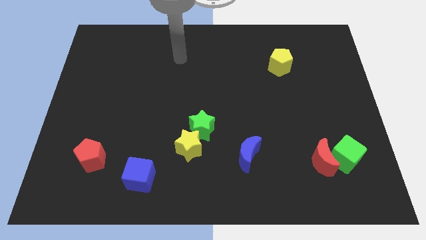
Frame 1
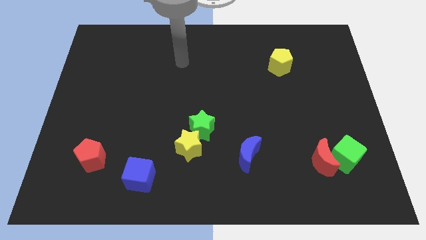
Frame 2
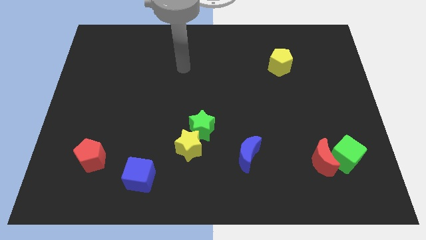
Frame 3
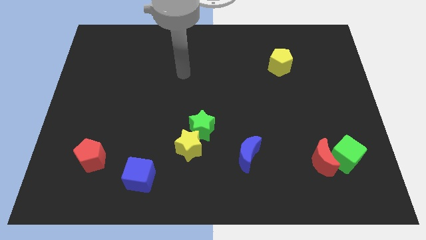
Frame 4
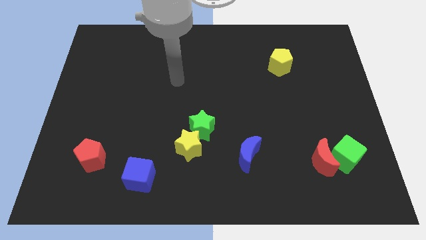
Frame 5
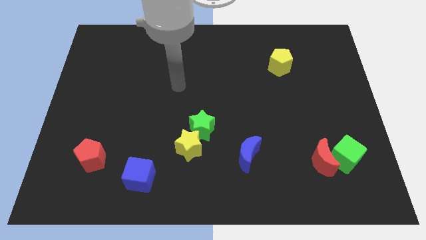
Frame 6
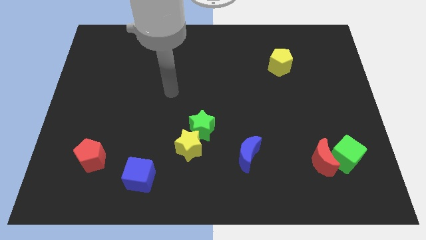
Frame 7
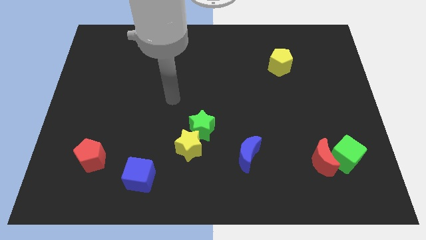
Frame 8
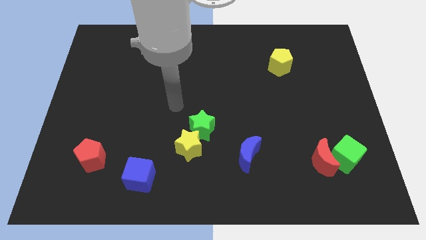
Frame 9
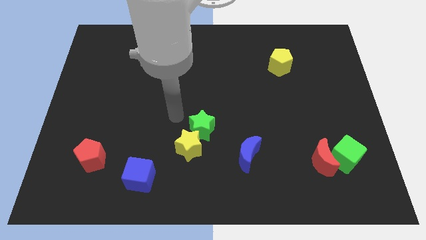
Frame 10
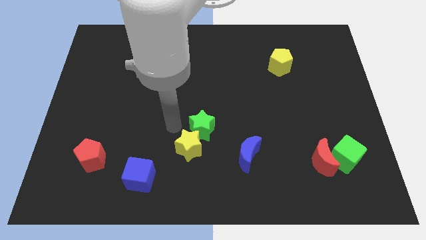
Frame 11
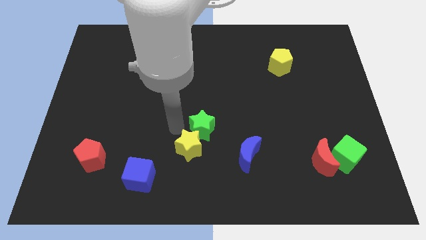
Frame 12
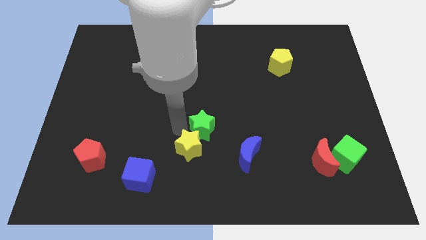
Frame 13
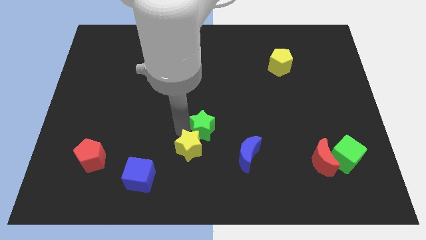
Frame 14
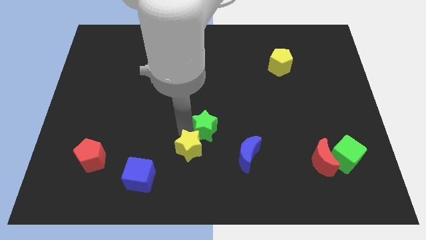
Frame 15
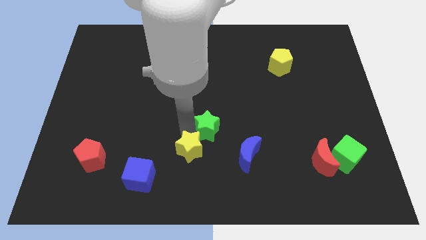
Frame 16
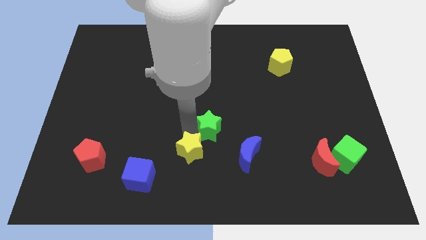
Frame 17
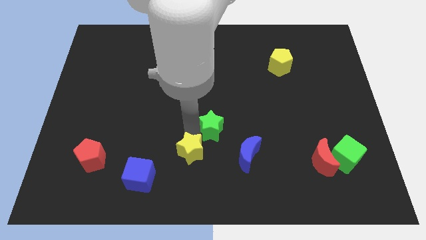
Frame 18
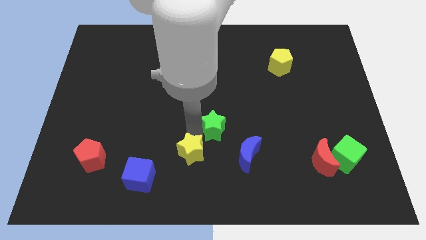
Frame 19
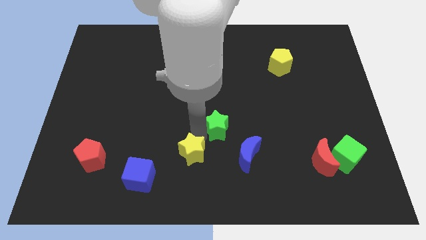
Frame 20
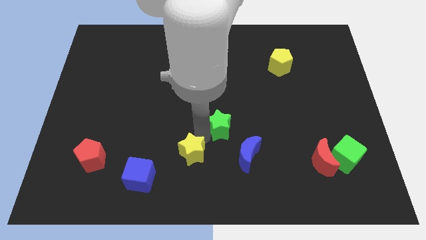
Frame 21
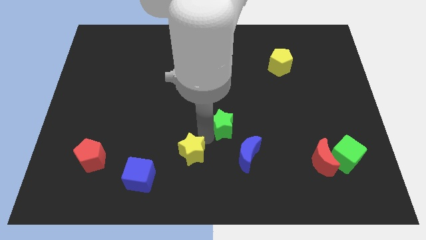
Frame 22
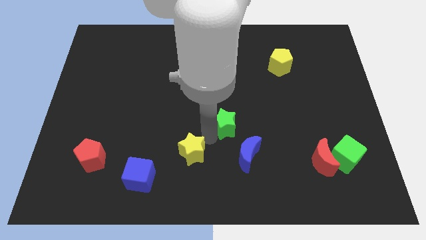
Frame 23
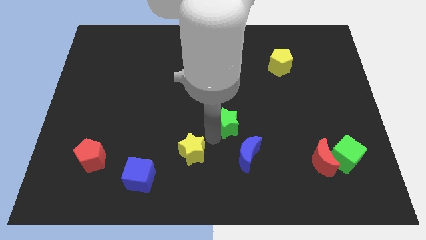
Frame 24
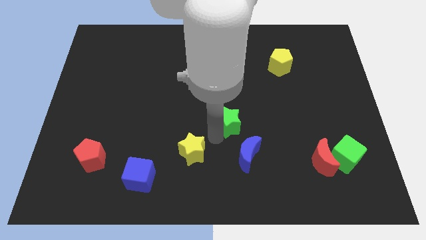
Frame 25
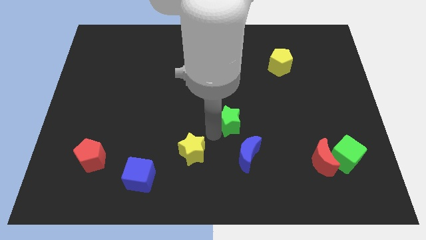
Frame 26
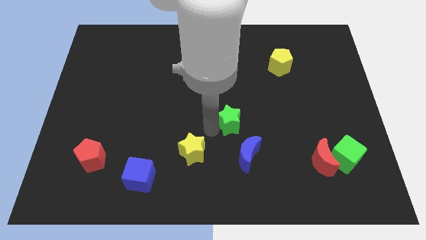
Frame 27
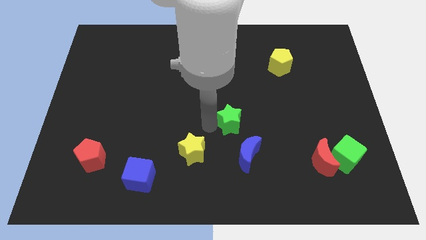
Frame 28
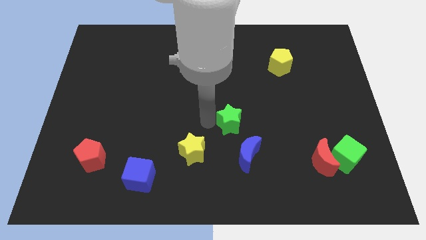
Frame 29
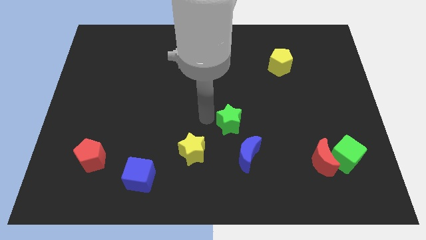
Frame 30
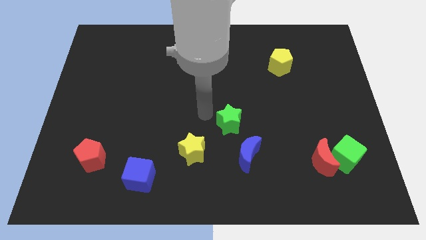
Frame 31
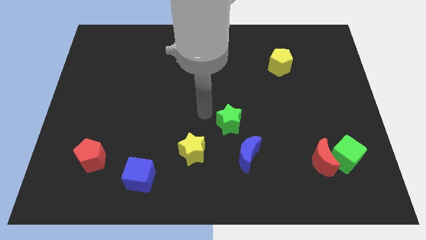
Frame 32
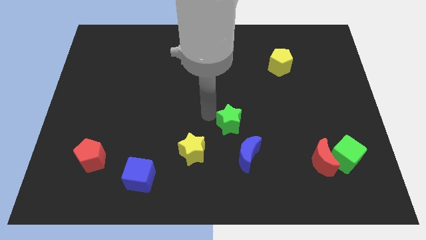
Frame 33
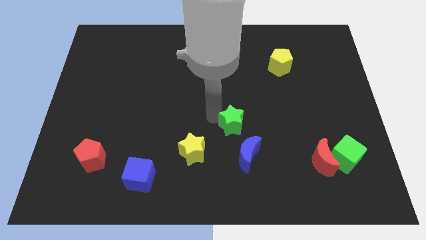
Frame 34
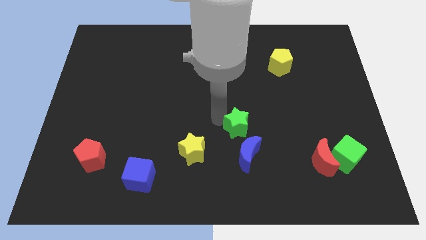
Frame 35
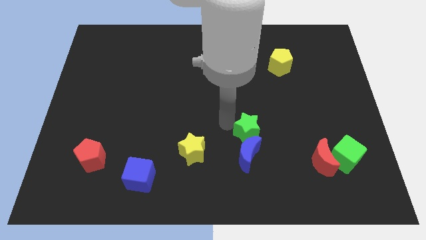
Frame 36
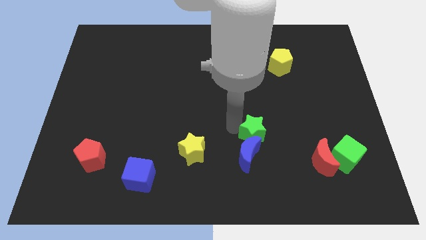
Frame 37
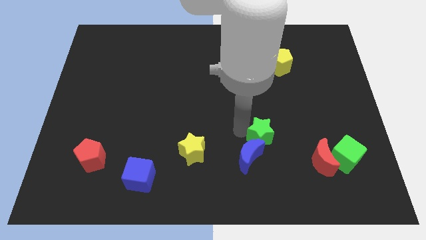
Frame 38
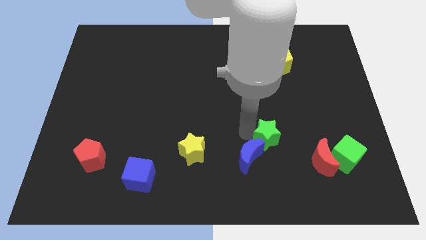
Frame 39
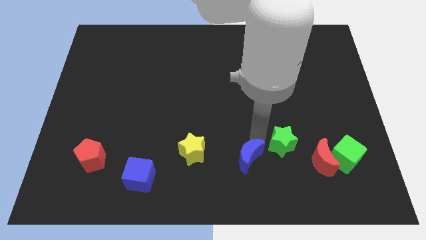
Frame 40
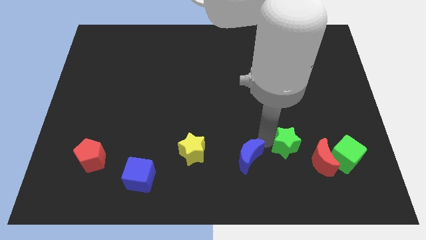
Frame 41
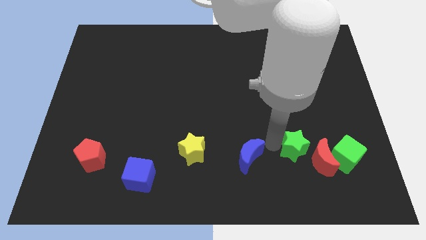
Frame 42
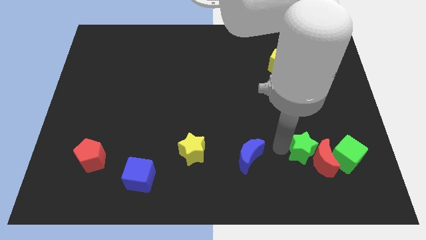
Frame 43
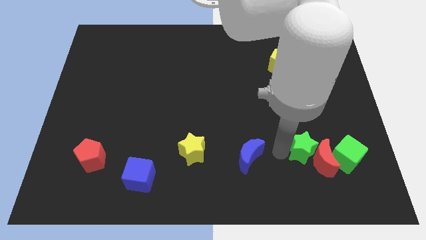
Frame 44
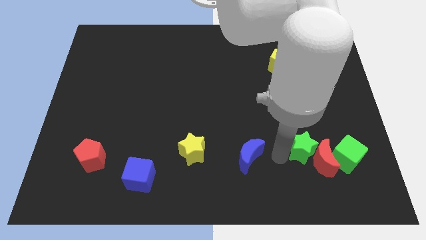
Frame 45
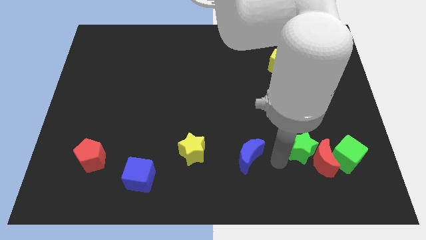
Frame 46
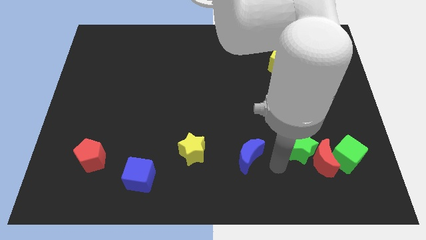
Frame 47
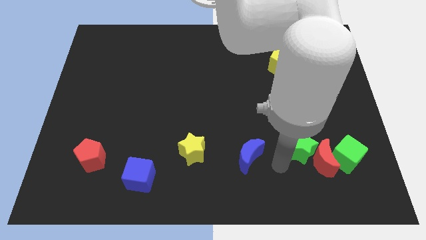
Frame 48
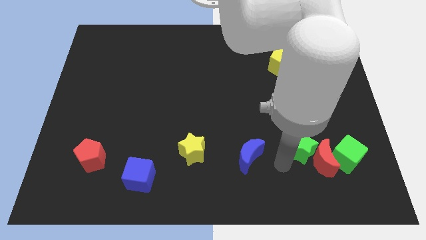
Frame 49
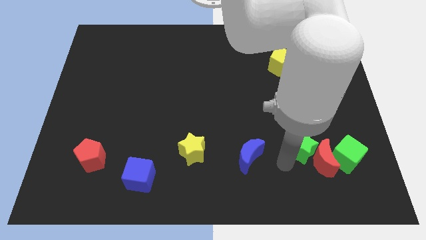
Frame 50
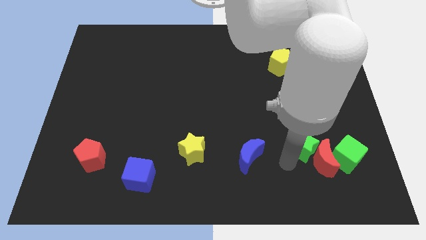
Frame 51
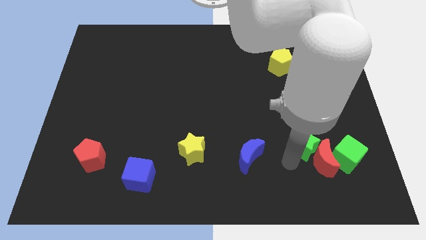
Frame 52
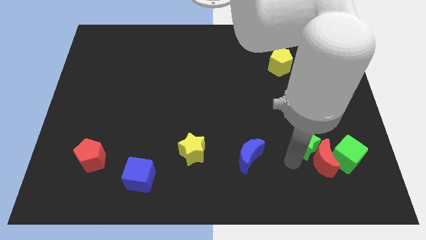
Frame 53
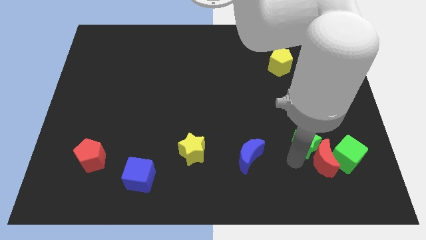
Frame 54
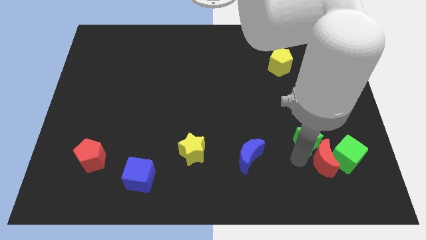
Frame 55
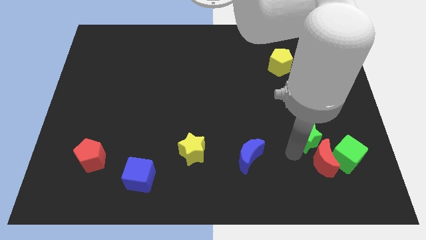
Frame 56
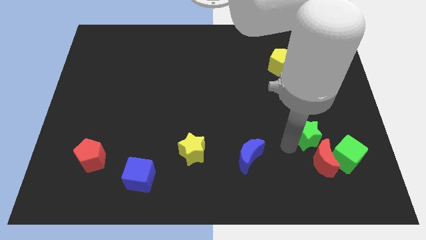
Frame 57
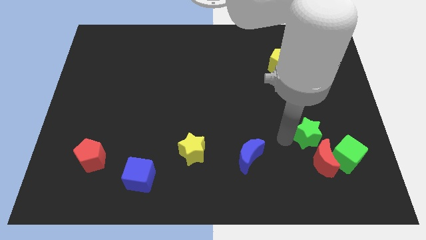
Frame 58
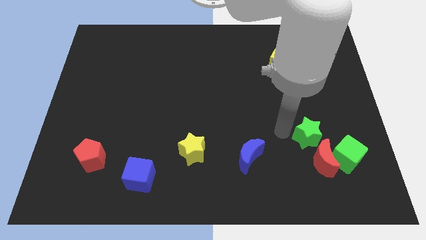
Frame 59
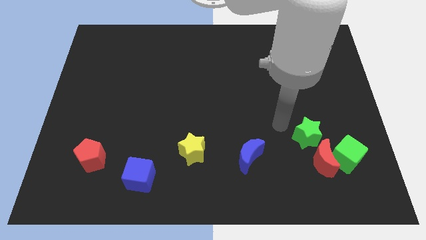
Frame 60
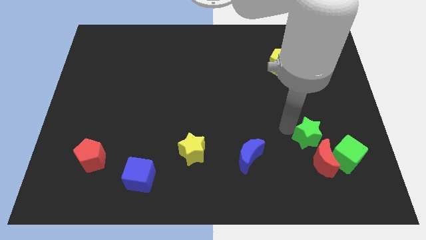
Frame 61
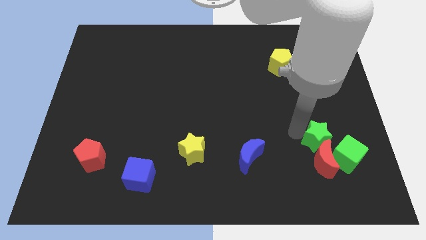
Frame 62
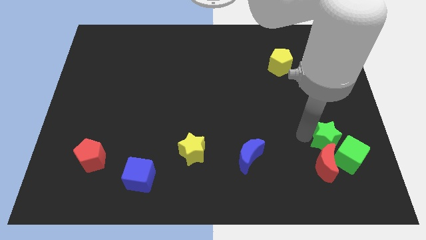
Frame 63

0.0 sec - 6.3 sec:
push the green star to the green cube

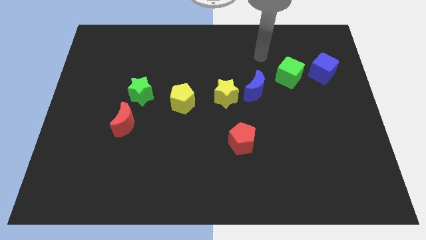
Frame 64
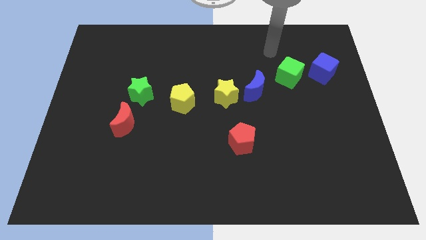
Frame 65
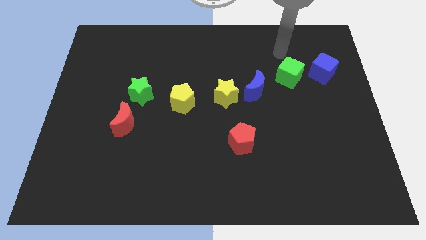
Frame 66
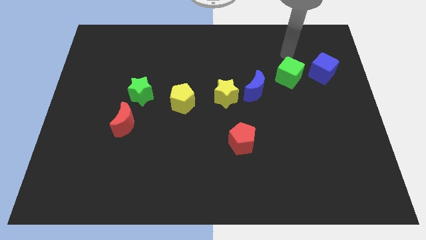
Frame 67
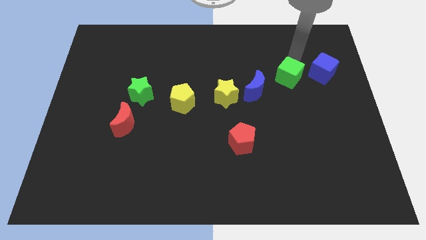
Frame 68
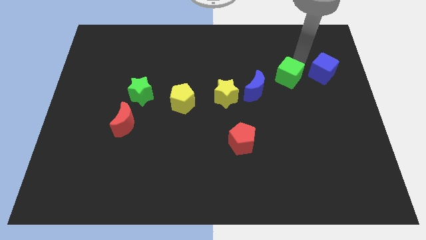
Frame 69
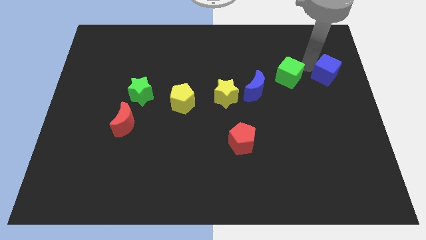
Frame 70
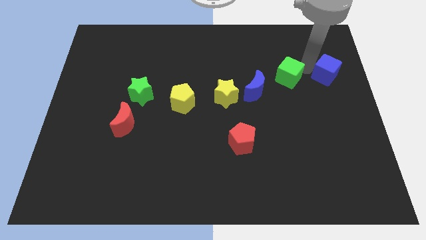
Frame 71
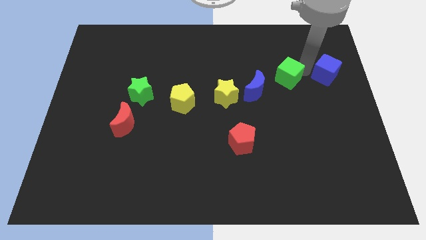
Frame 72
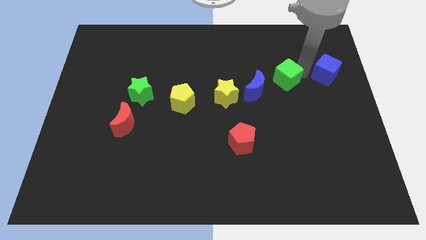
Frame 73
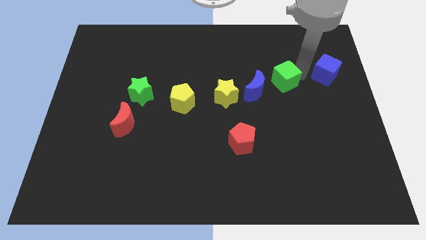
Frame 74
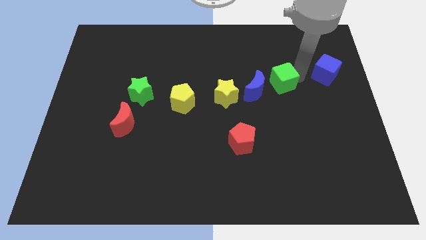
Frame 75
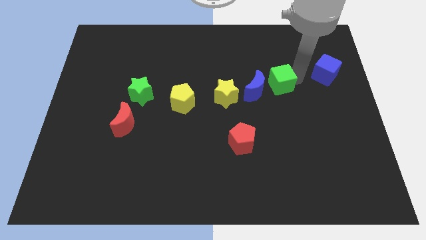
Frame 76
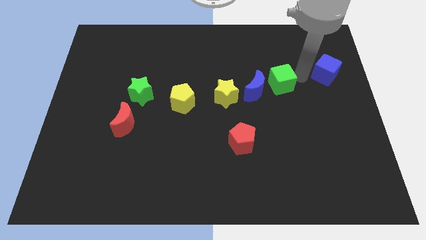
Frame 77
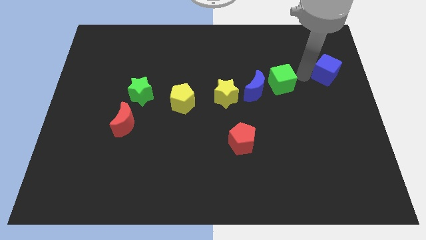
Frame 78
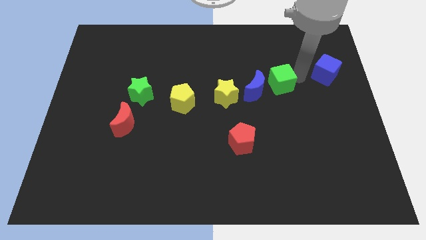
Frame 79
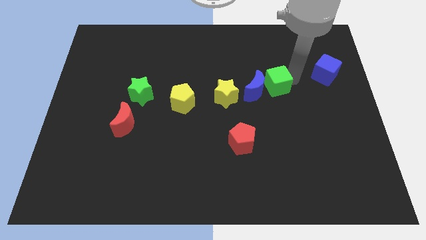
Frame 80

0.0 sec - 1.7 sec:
move the green cube next to the blue moon
